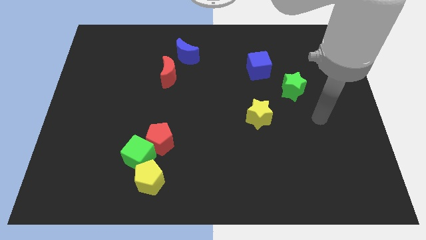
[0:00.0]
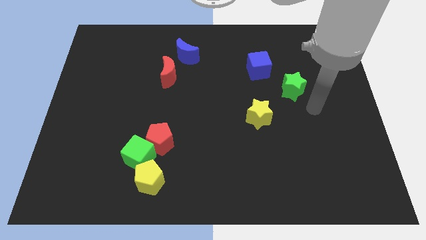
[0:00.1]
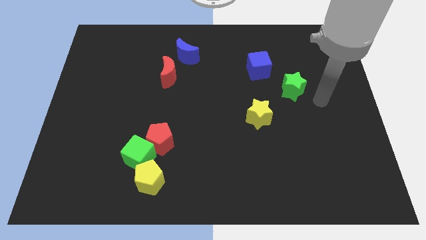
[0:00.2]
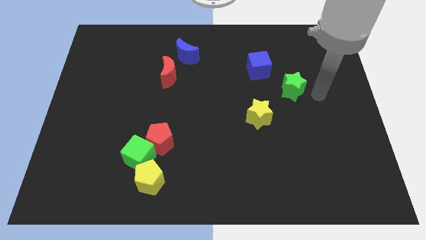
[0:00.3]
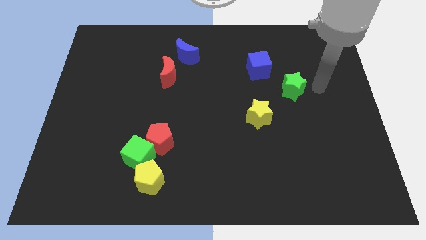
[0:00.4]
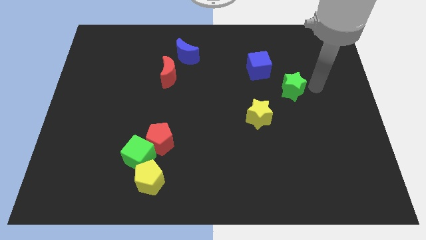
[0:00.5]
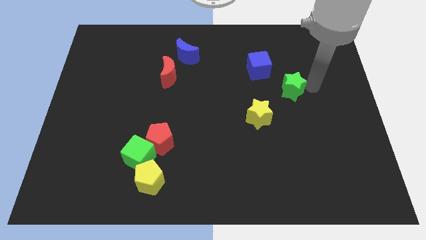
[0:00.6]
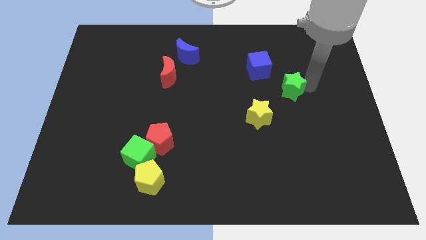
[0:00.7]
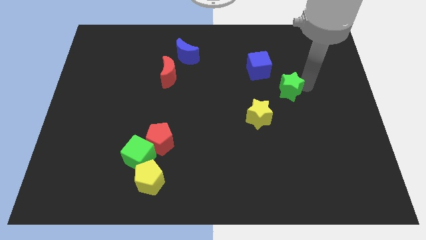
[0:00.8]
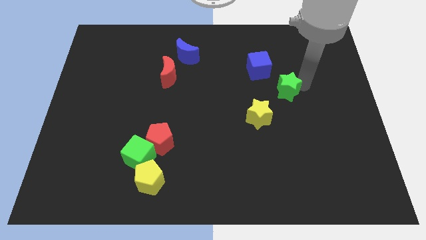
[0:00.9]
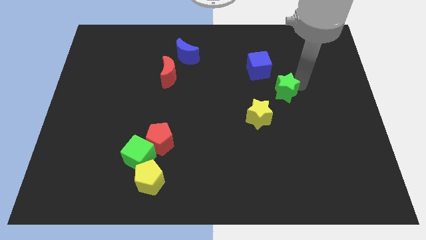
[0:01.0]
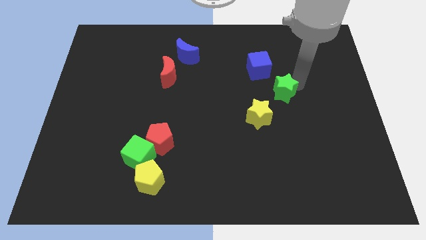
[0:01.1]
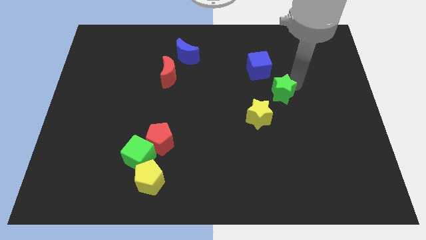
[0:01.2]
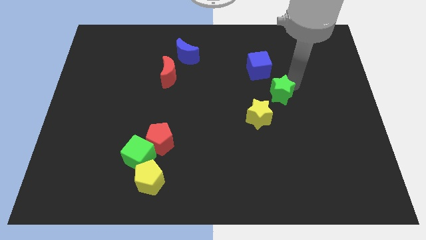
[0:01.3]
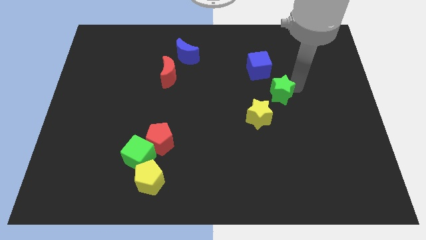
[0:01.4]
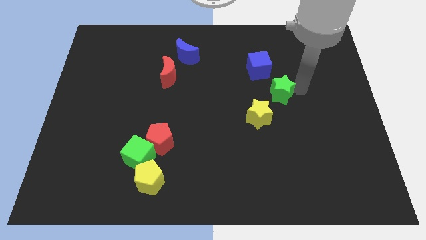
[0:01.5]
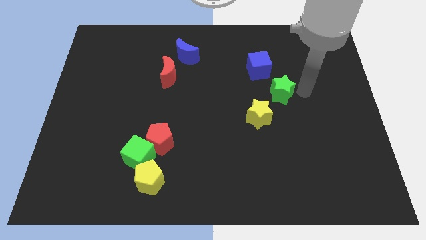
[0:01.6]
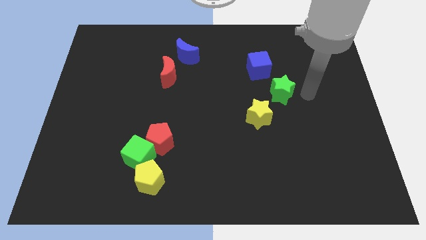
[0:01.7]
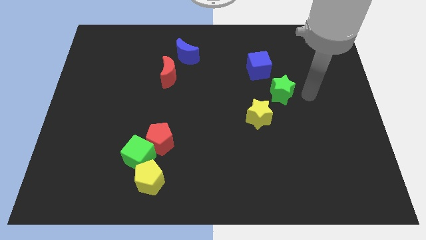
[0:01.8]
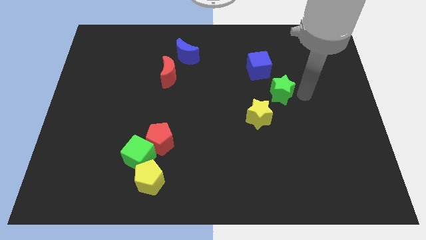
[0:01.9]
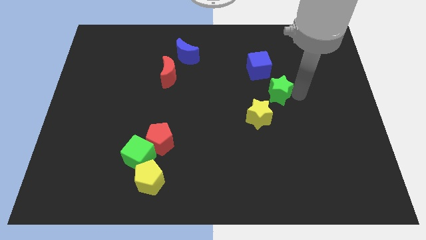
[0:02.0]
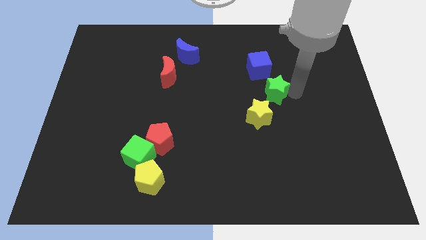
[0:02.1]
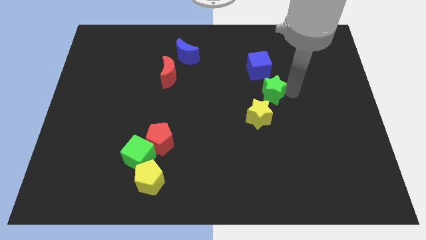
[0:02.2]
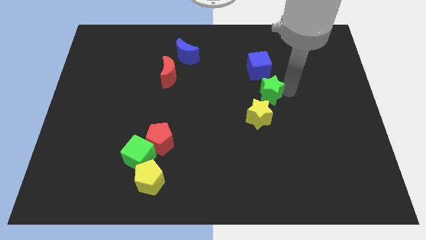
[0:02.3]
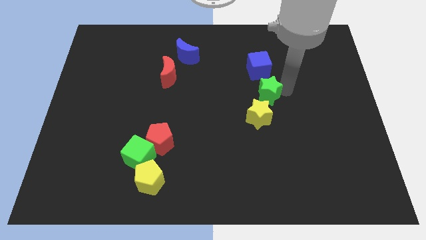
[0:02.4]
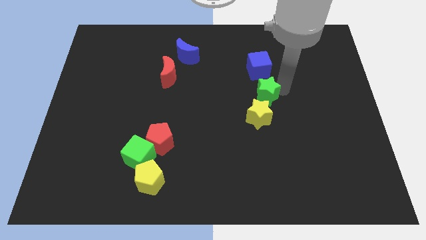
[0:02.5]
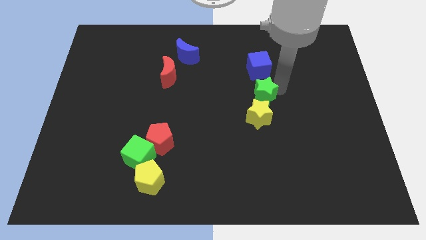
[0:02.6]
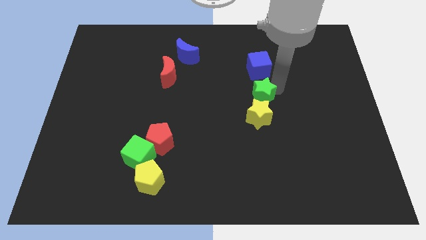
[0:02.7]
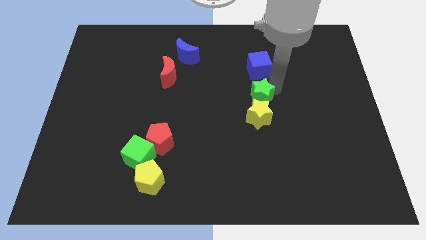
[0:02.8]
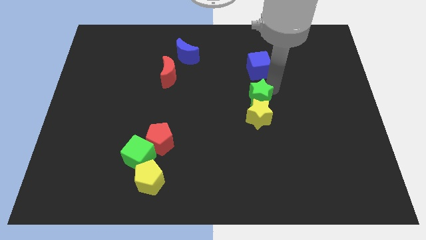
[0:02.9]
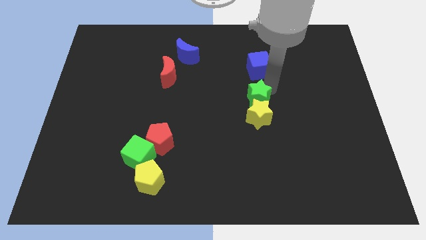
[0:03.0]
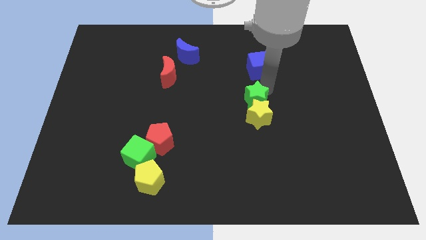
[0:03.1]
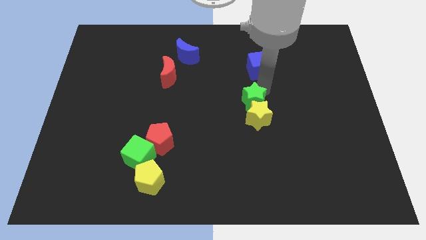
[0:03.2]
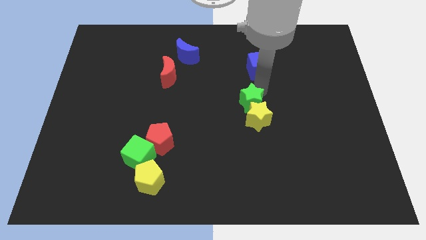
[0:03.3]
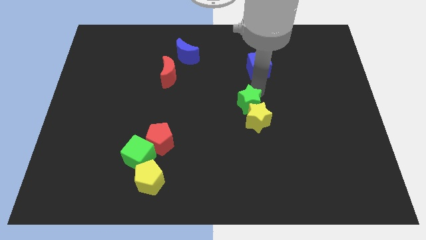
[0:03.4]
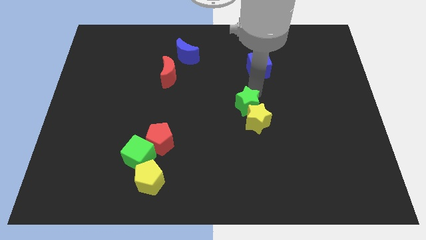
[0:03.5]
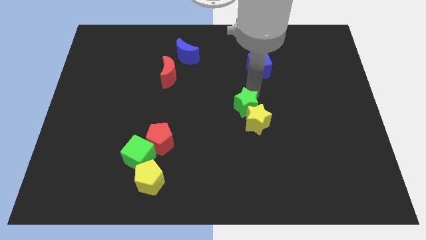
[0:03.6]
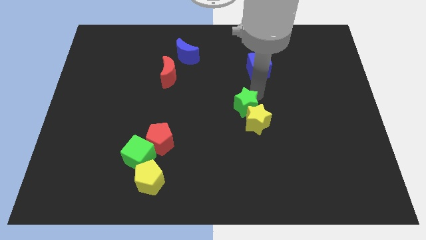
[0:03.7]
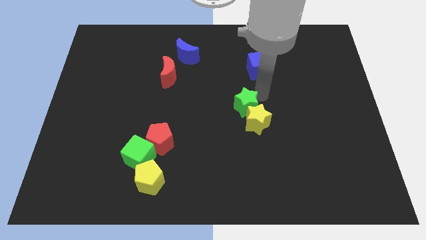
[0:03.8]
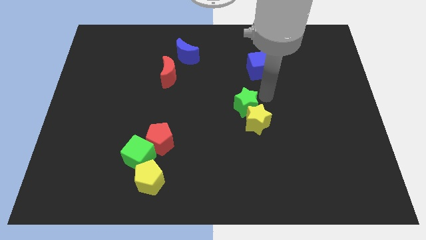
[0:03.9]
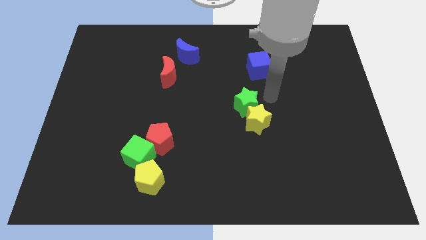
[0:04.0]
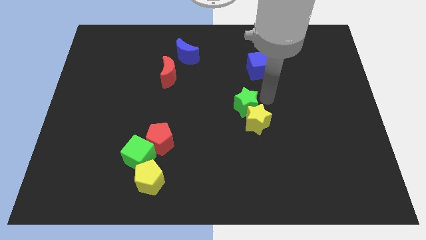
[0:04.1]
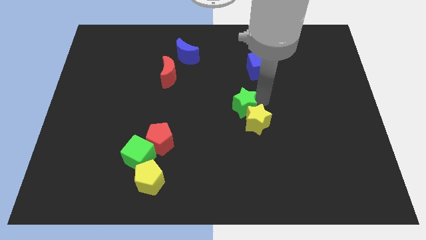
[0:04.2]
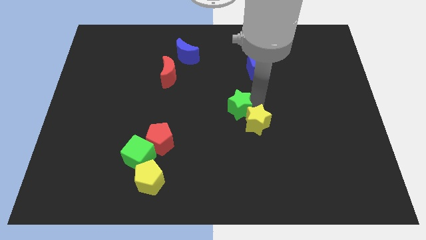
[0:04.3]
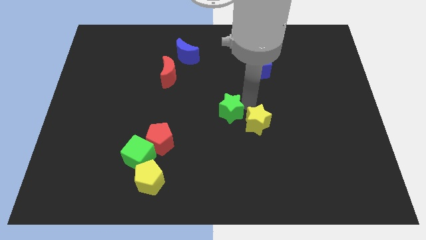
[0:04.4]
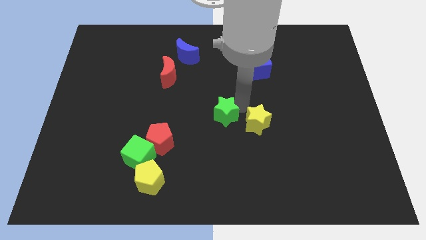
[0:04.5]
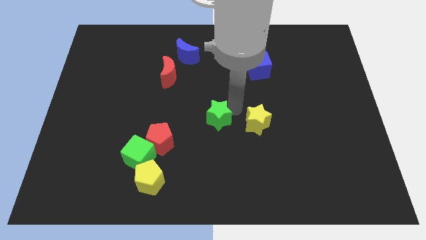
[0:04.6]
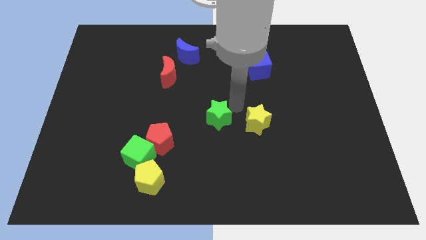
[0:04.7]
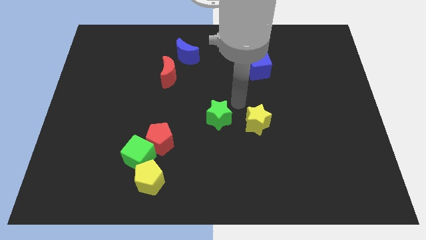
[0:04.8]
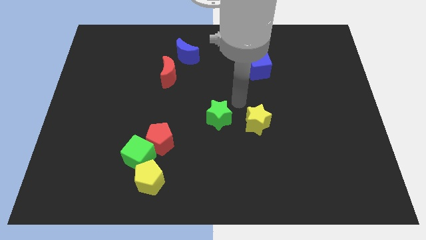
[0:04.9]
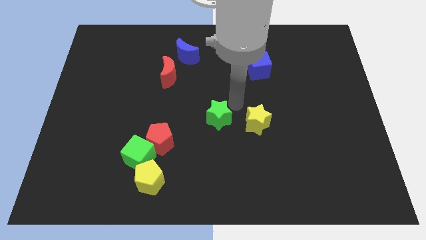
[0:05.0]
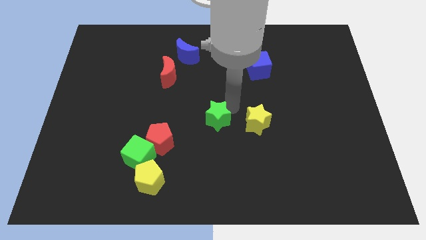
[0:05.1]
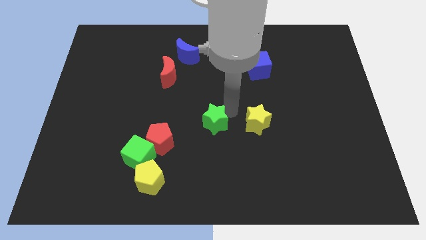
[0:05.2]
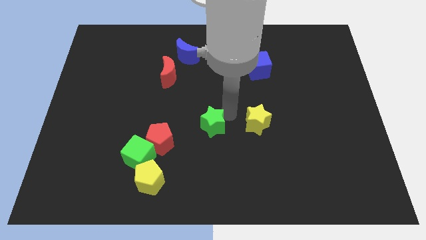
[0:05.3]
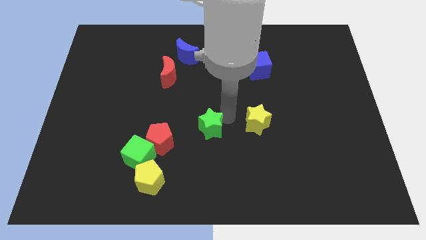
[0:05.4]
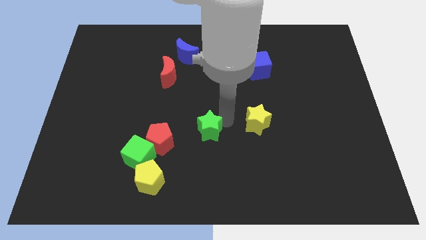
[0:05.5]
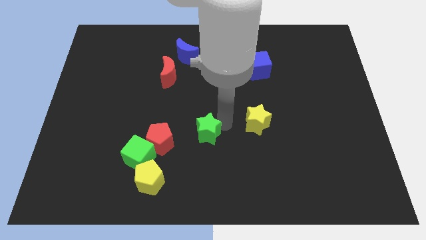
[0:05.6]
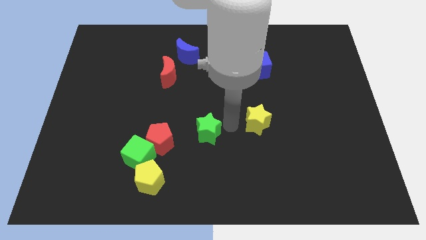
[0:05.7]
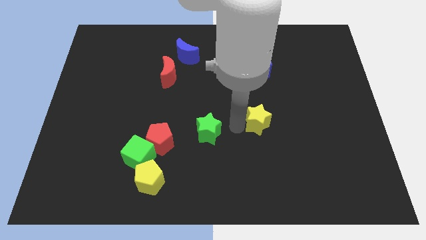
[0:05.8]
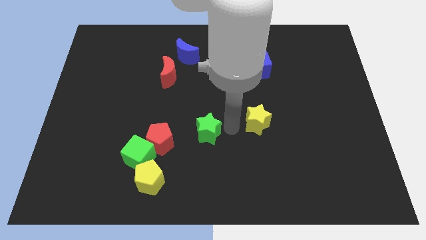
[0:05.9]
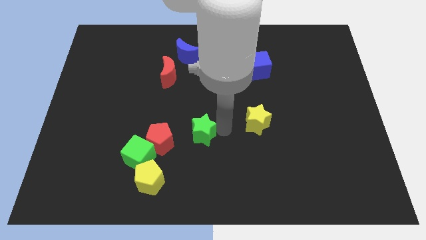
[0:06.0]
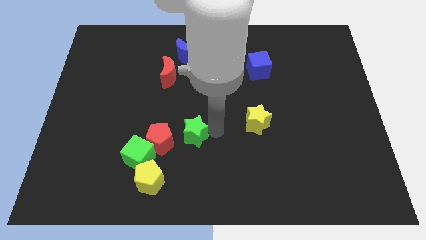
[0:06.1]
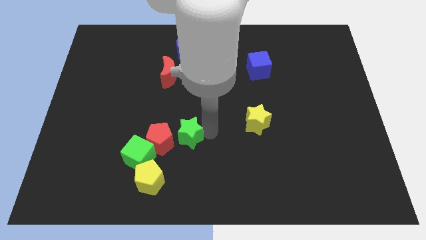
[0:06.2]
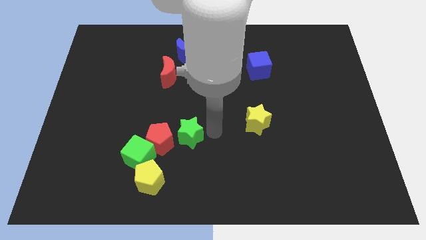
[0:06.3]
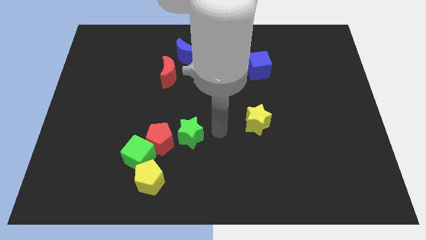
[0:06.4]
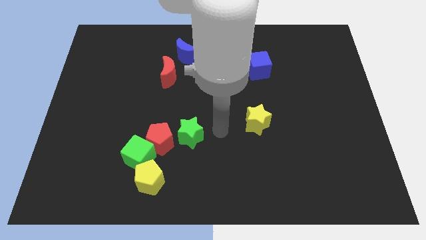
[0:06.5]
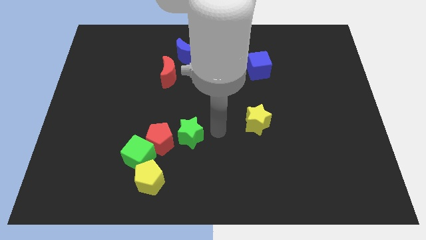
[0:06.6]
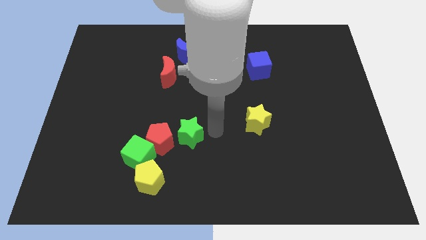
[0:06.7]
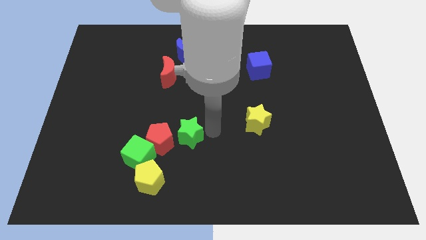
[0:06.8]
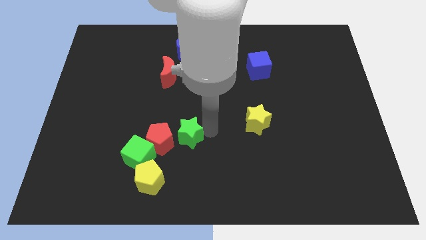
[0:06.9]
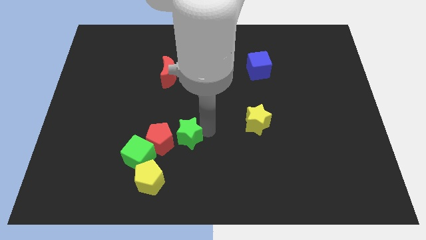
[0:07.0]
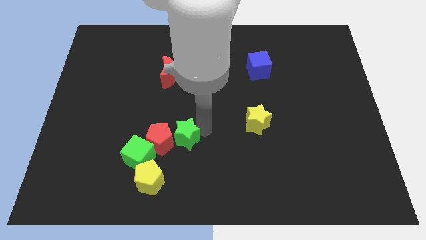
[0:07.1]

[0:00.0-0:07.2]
push the green star close to the red pentagon

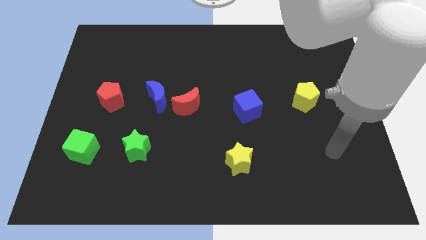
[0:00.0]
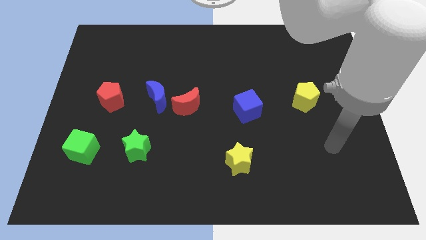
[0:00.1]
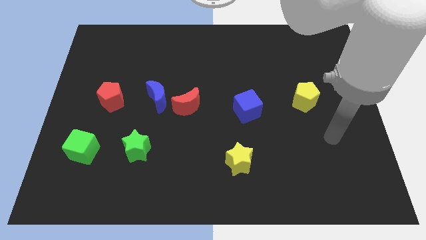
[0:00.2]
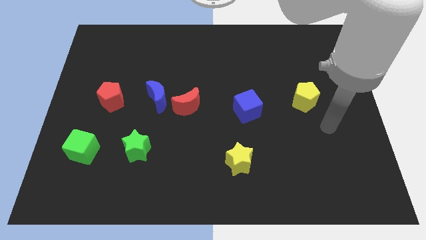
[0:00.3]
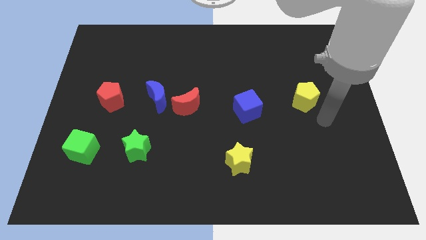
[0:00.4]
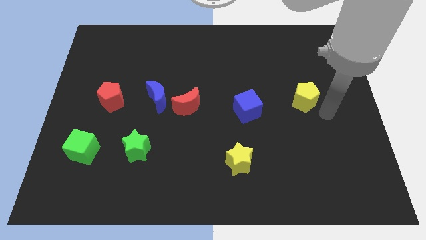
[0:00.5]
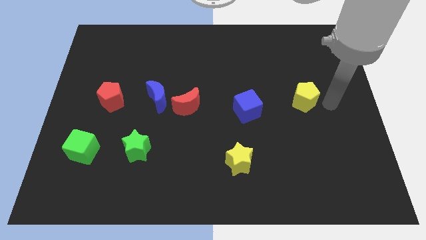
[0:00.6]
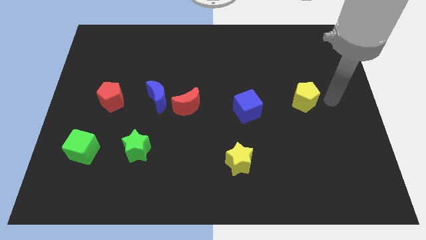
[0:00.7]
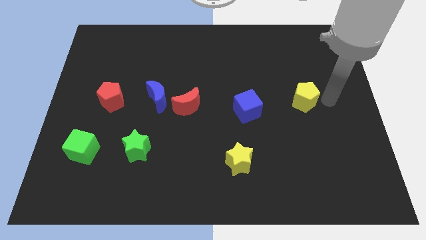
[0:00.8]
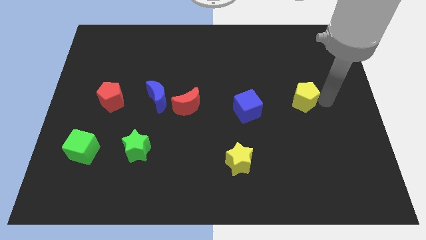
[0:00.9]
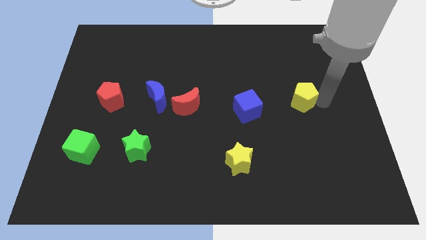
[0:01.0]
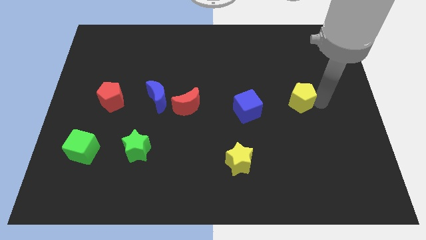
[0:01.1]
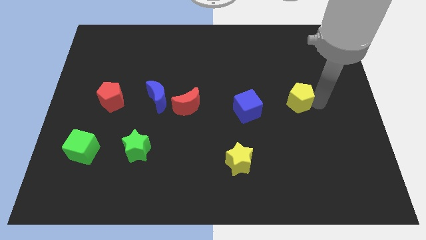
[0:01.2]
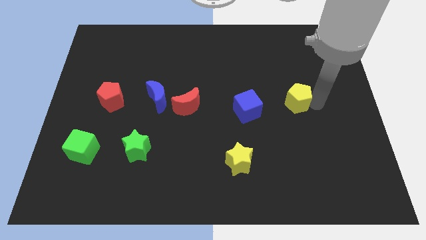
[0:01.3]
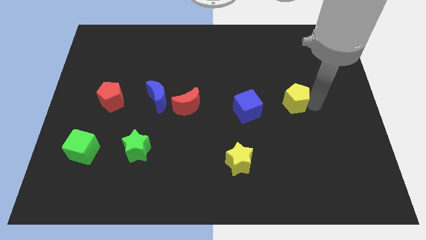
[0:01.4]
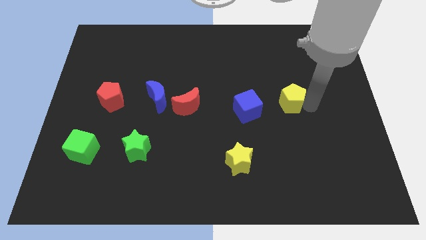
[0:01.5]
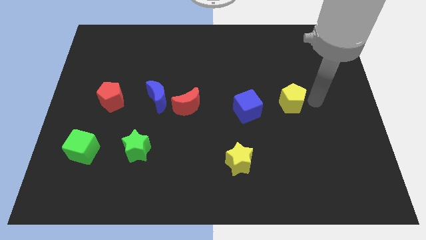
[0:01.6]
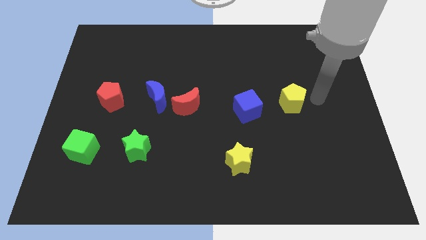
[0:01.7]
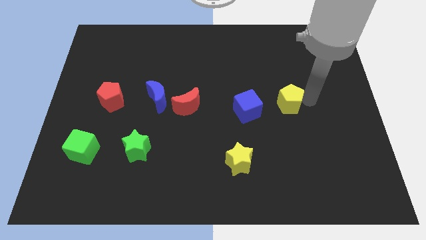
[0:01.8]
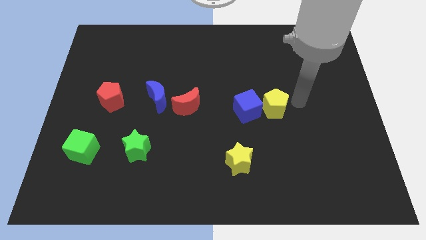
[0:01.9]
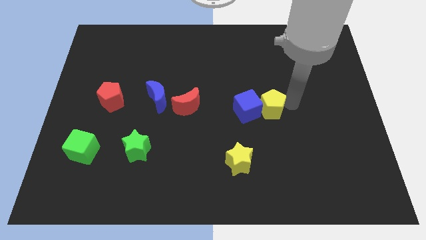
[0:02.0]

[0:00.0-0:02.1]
put the yellow pentagon towards the blue cube
